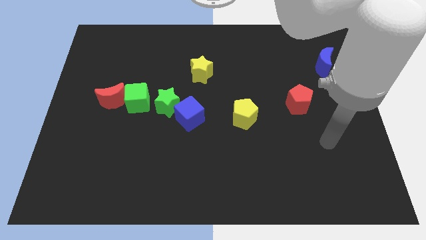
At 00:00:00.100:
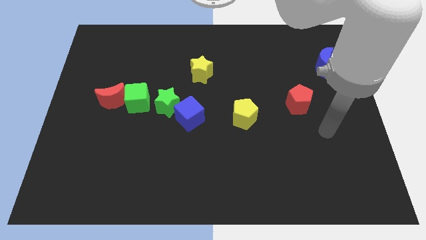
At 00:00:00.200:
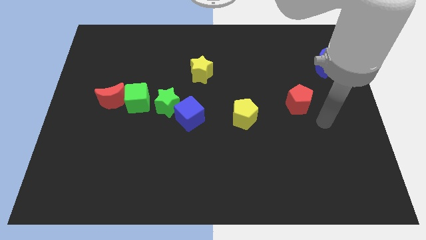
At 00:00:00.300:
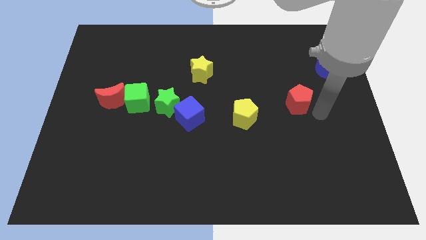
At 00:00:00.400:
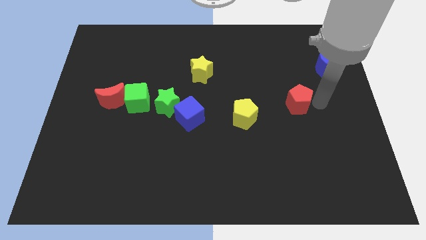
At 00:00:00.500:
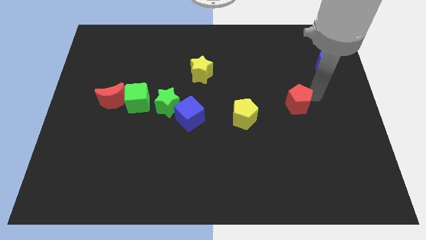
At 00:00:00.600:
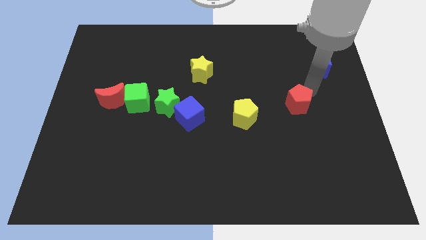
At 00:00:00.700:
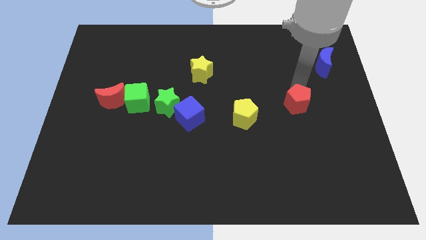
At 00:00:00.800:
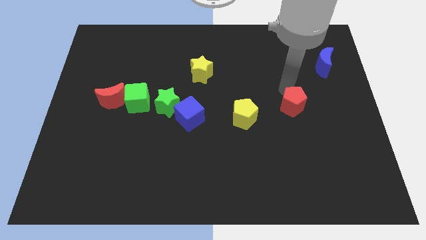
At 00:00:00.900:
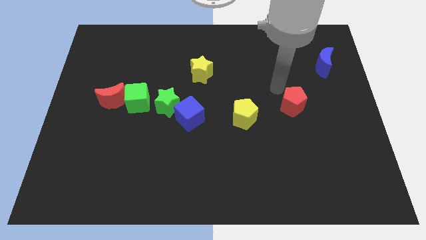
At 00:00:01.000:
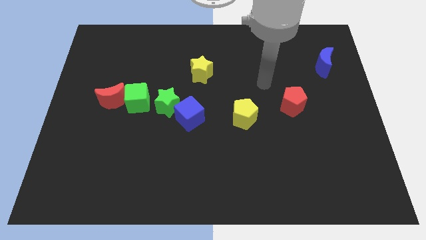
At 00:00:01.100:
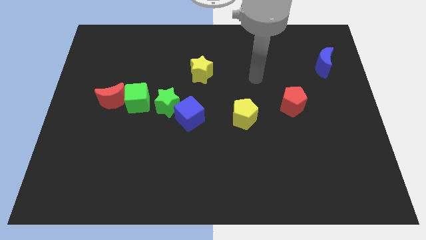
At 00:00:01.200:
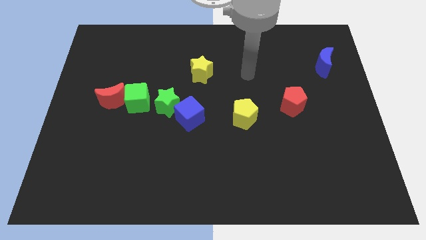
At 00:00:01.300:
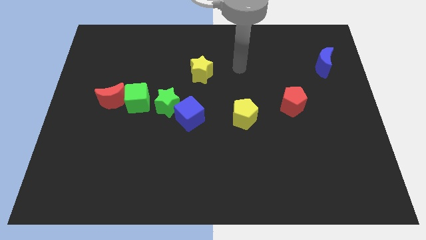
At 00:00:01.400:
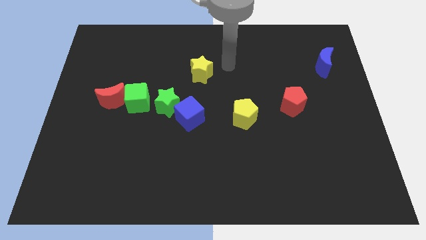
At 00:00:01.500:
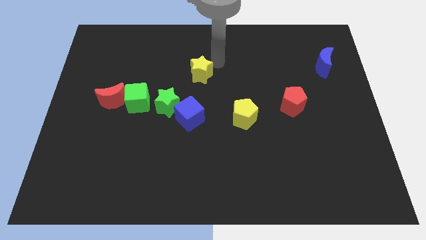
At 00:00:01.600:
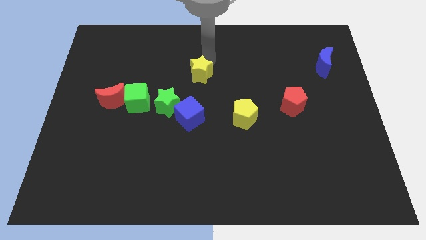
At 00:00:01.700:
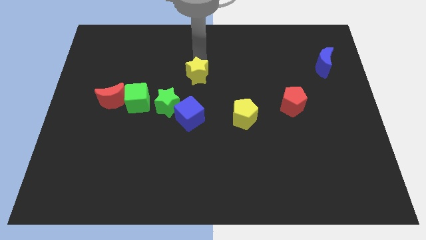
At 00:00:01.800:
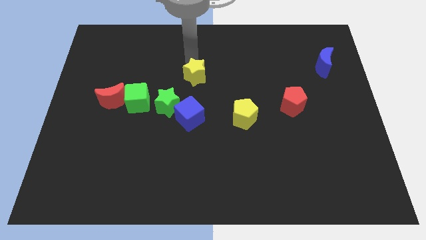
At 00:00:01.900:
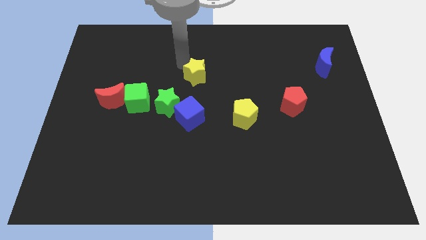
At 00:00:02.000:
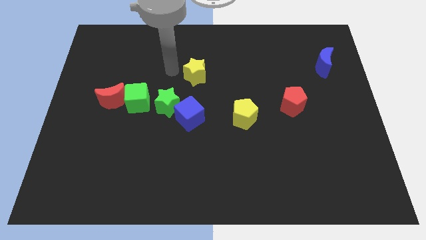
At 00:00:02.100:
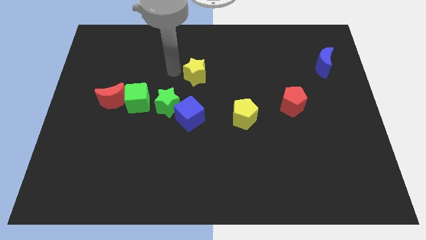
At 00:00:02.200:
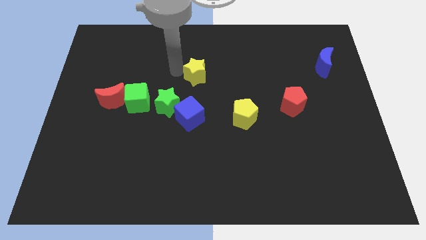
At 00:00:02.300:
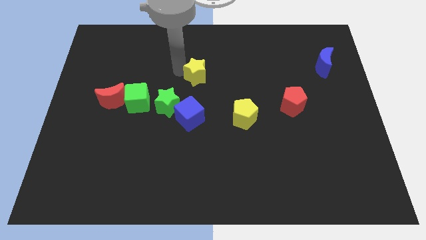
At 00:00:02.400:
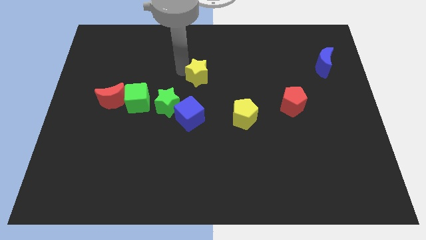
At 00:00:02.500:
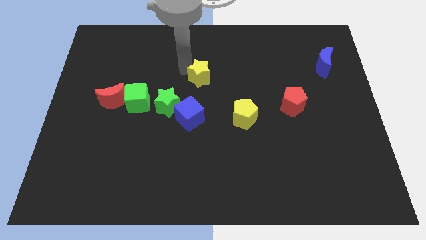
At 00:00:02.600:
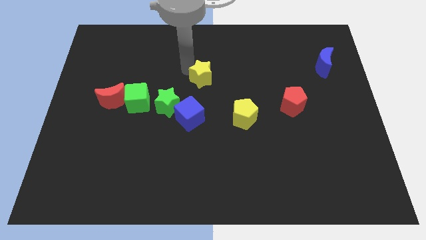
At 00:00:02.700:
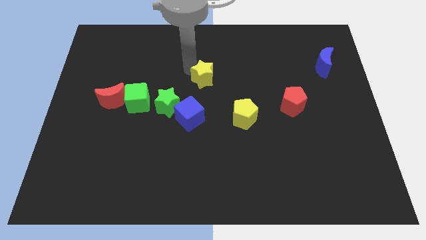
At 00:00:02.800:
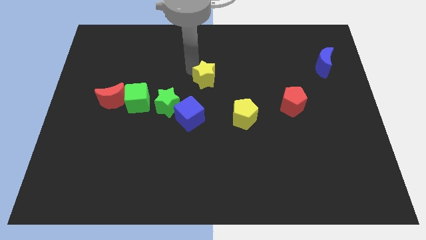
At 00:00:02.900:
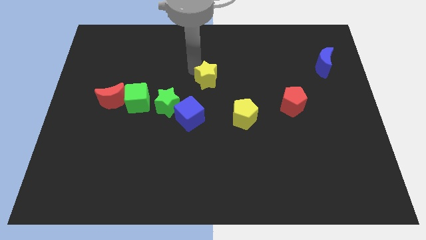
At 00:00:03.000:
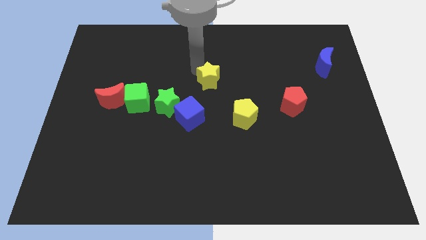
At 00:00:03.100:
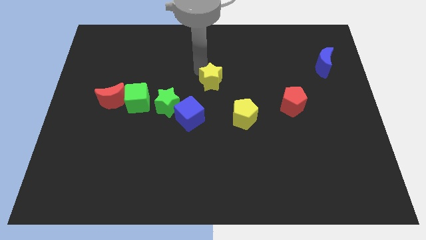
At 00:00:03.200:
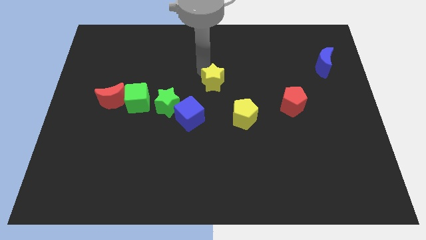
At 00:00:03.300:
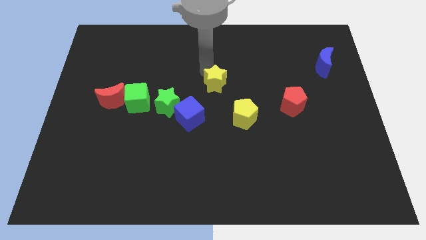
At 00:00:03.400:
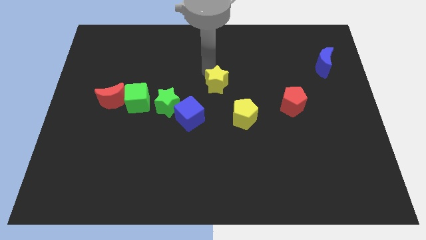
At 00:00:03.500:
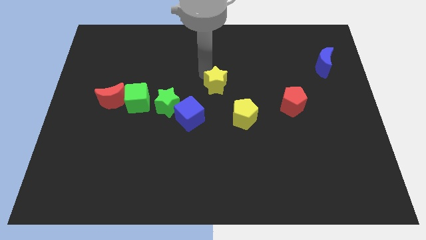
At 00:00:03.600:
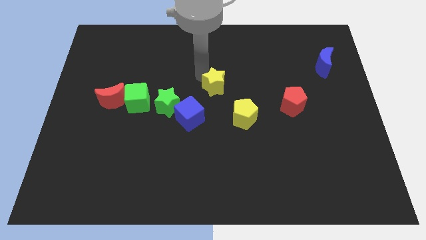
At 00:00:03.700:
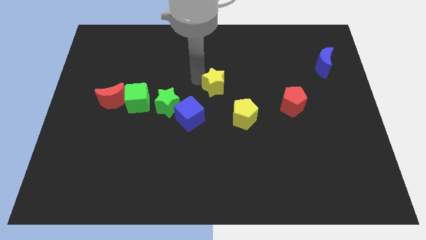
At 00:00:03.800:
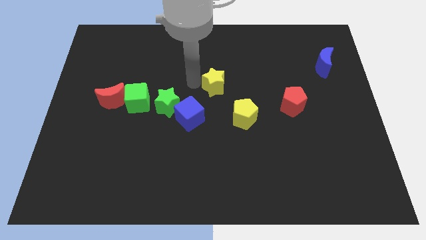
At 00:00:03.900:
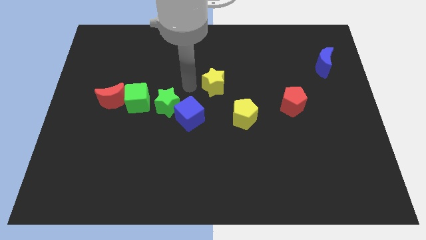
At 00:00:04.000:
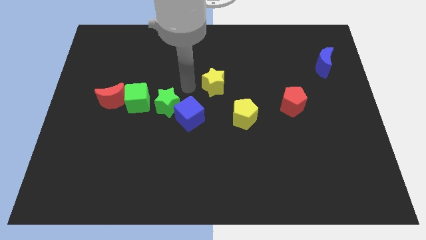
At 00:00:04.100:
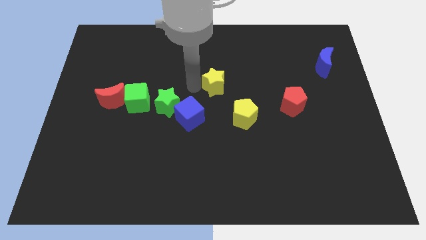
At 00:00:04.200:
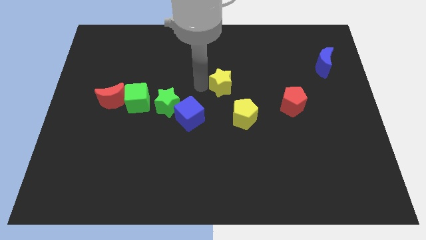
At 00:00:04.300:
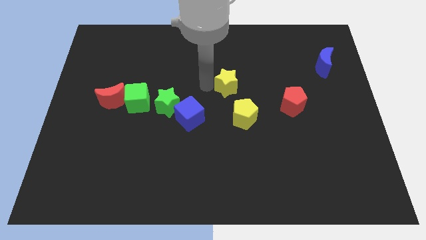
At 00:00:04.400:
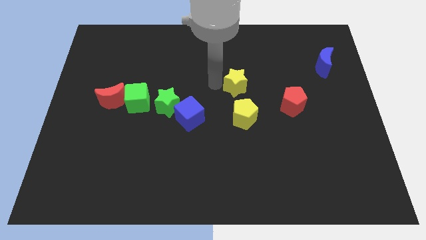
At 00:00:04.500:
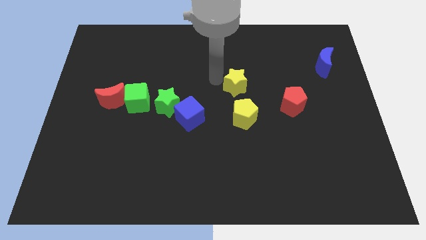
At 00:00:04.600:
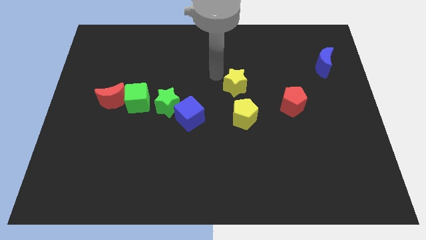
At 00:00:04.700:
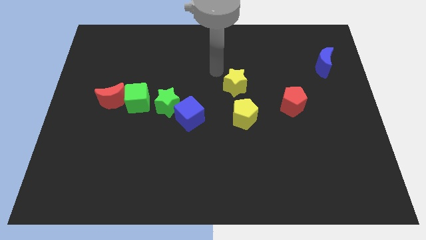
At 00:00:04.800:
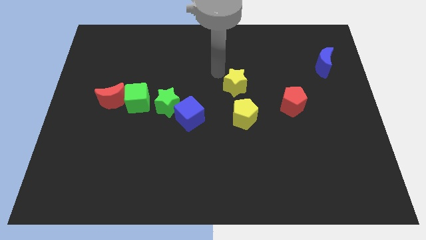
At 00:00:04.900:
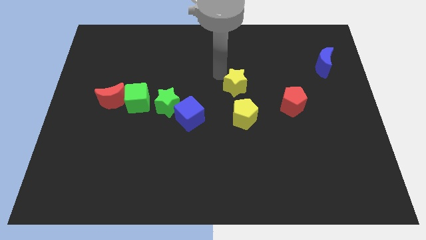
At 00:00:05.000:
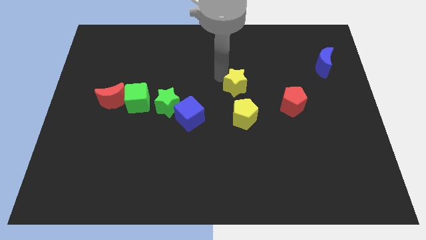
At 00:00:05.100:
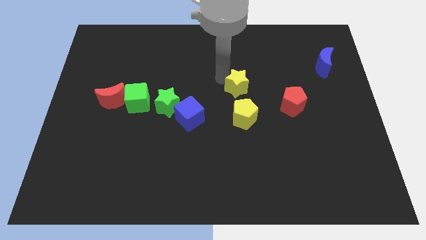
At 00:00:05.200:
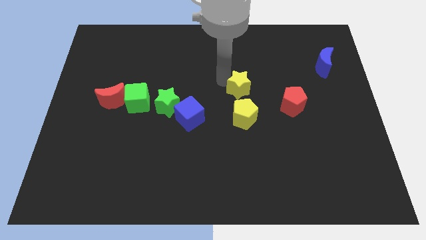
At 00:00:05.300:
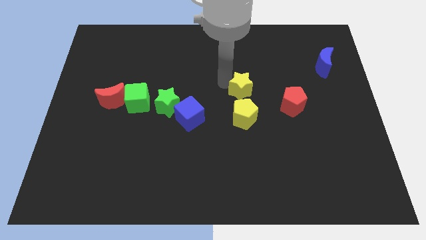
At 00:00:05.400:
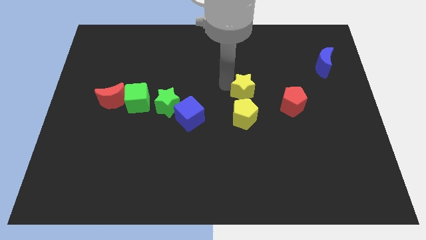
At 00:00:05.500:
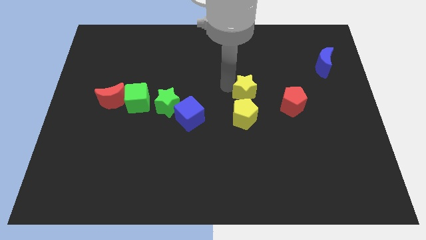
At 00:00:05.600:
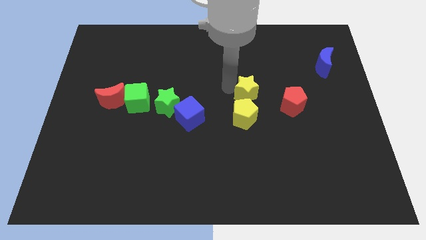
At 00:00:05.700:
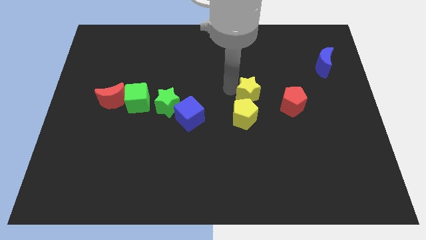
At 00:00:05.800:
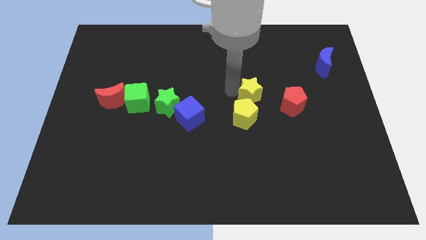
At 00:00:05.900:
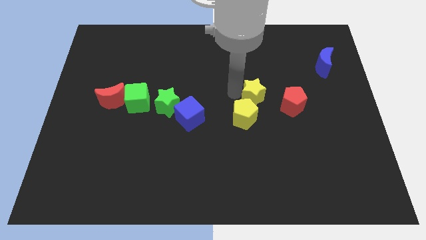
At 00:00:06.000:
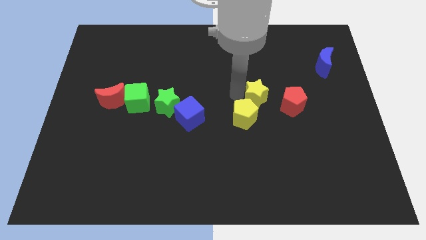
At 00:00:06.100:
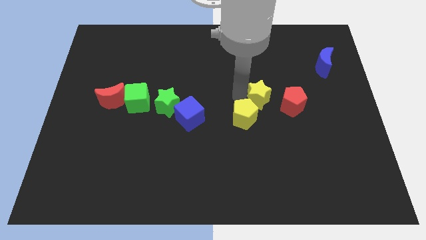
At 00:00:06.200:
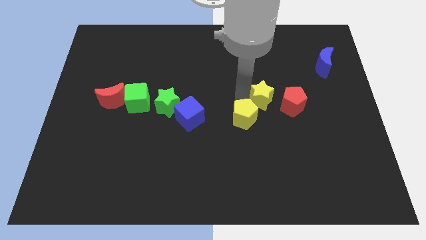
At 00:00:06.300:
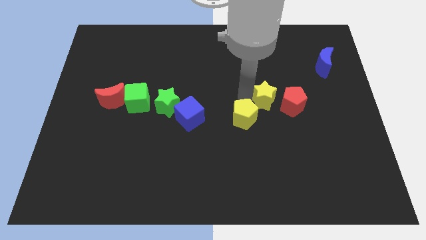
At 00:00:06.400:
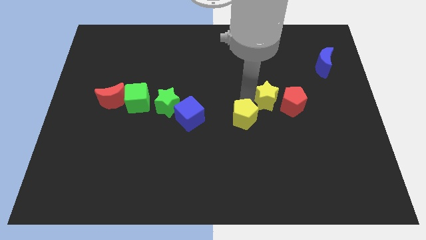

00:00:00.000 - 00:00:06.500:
move the yellow star towards the red pentagon
